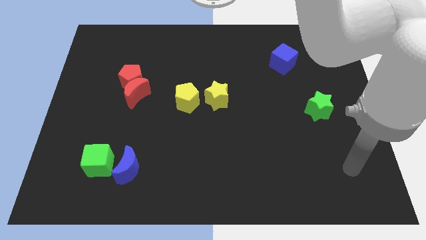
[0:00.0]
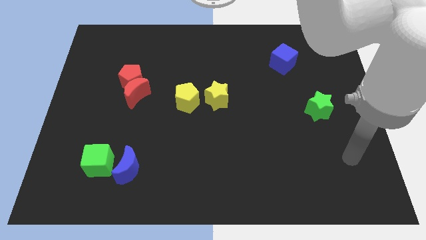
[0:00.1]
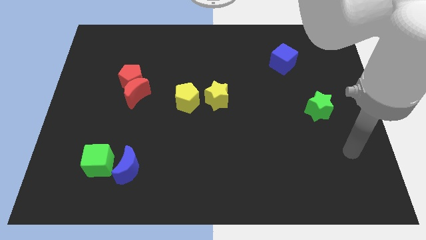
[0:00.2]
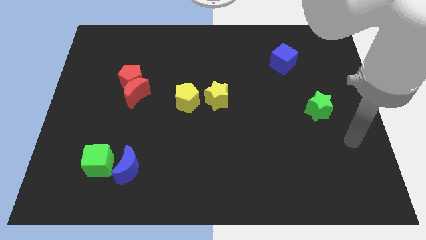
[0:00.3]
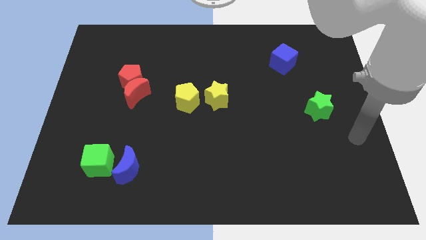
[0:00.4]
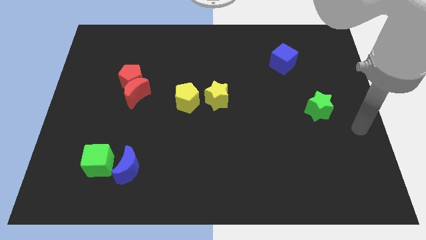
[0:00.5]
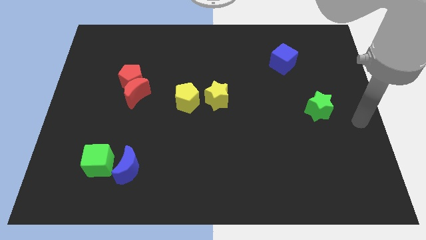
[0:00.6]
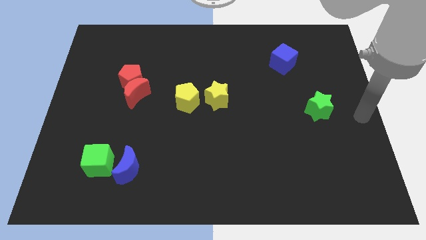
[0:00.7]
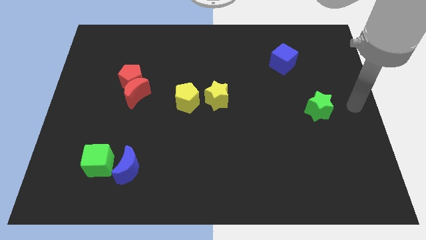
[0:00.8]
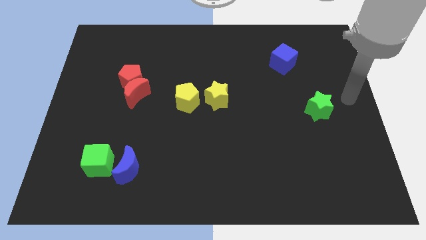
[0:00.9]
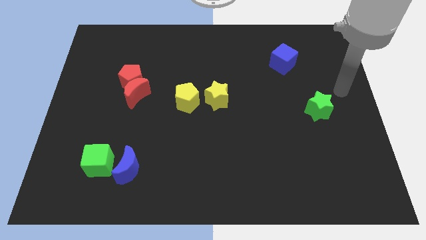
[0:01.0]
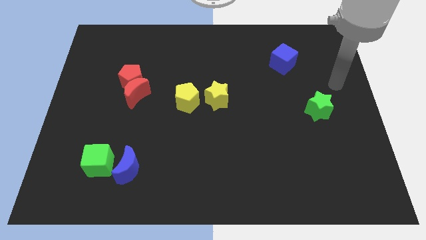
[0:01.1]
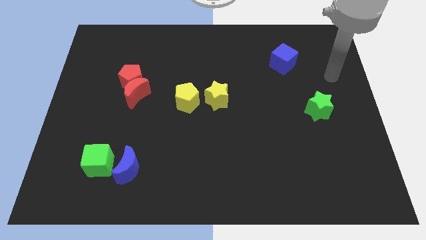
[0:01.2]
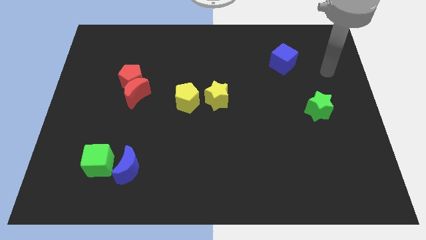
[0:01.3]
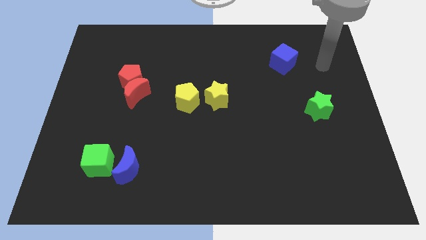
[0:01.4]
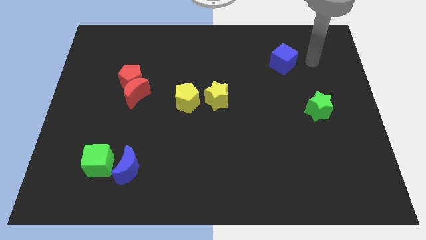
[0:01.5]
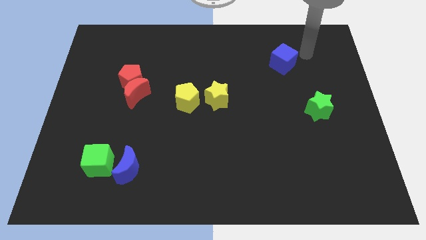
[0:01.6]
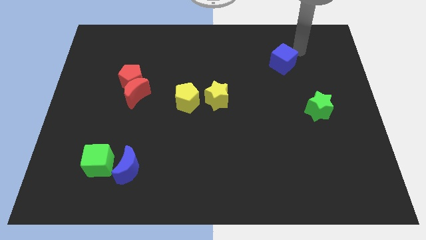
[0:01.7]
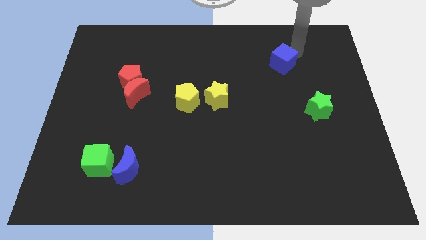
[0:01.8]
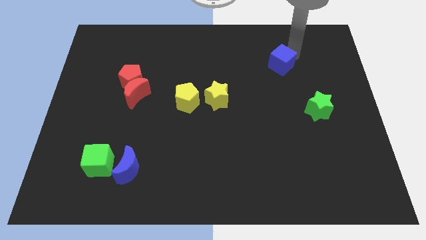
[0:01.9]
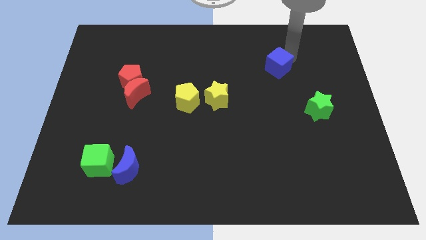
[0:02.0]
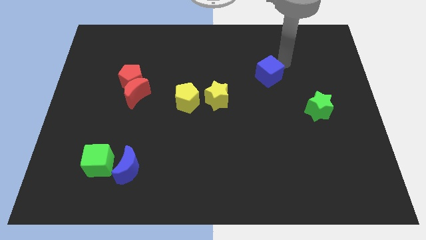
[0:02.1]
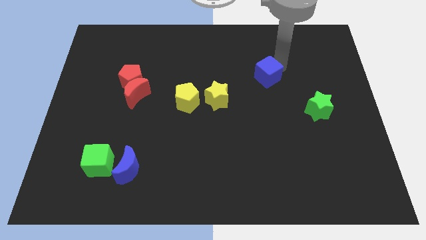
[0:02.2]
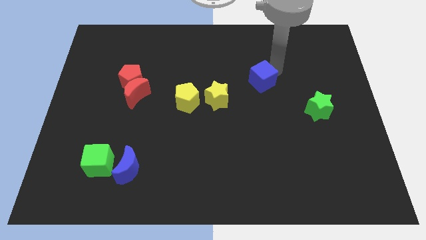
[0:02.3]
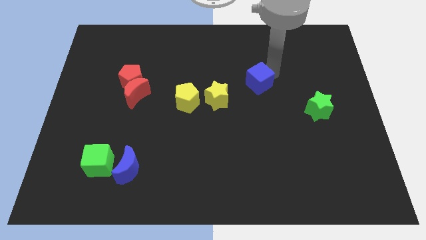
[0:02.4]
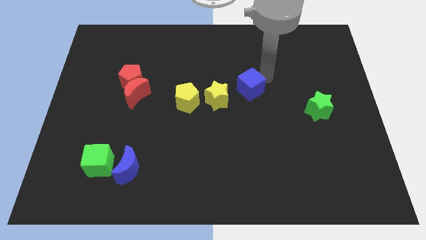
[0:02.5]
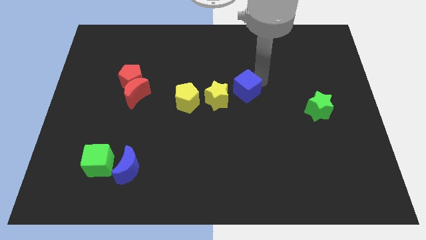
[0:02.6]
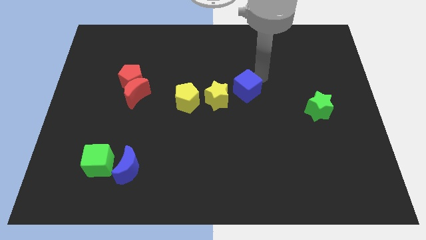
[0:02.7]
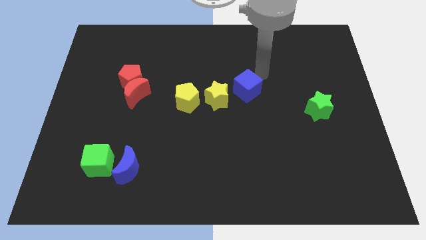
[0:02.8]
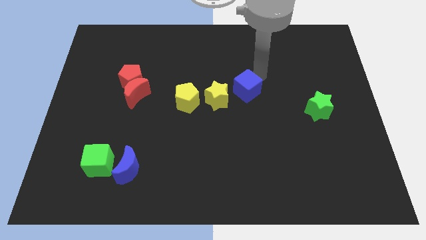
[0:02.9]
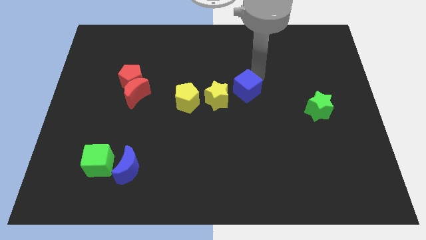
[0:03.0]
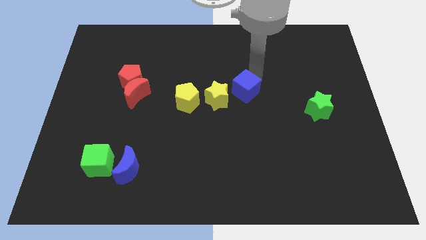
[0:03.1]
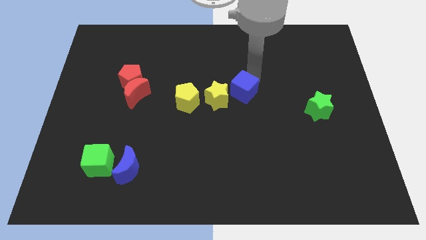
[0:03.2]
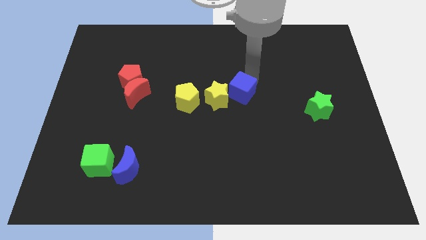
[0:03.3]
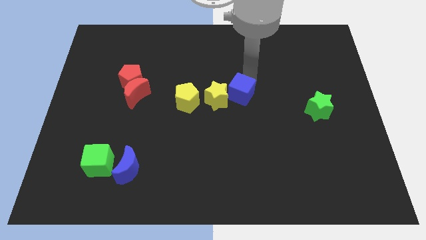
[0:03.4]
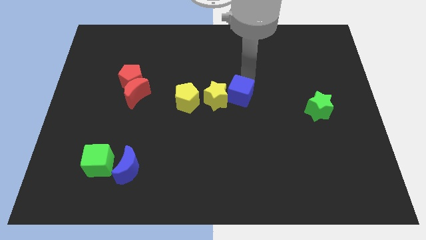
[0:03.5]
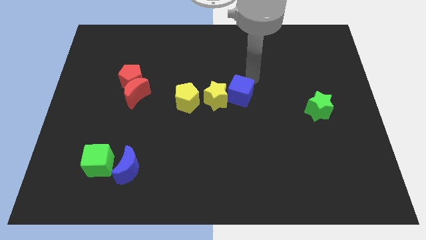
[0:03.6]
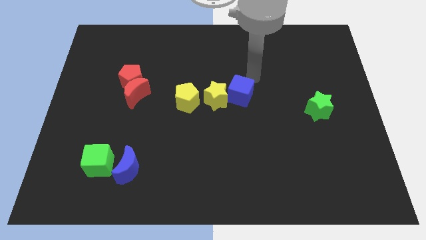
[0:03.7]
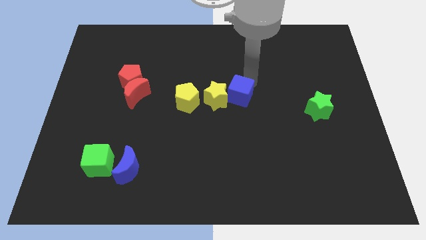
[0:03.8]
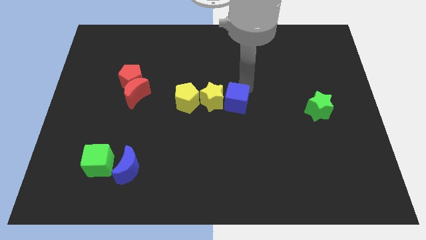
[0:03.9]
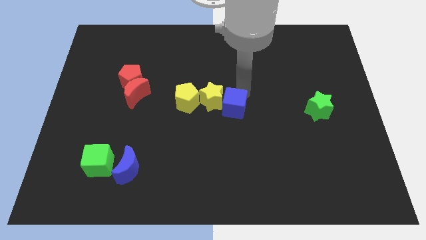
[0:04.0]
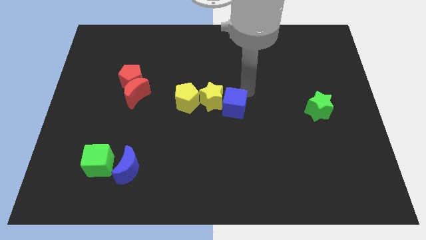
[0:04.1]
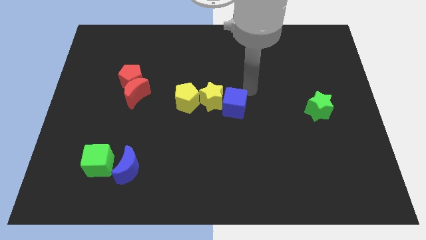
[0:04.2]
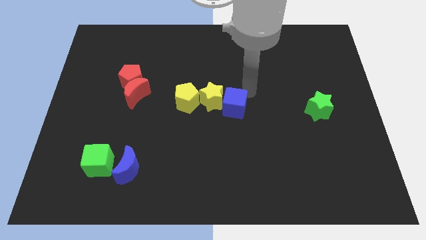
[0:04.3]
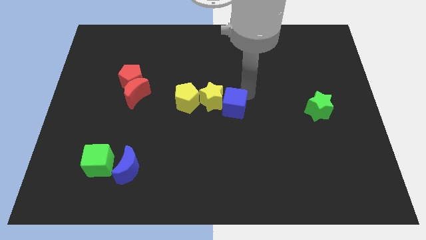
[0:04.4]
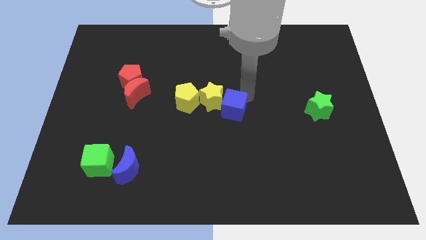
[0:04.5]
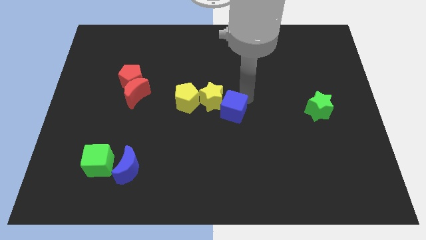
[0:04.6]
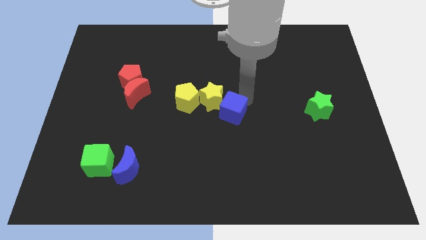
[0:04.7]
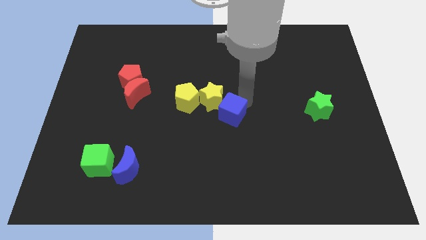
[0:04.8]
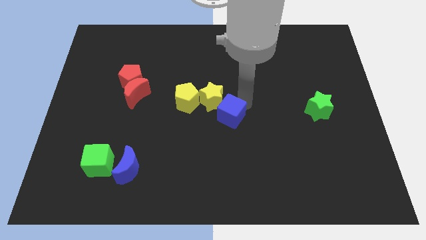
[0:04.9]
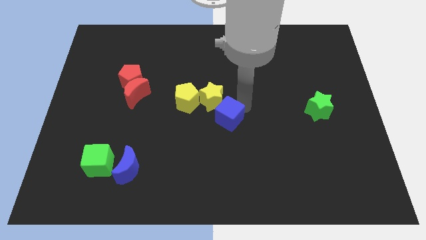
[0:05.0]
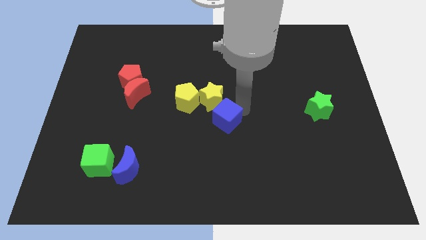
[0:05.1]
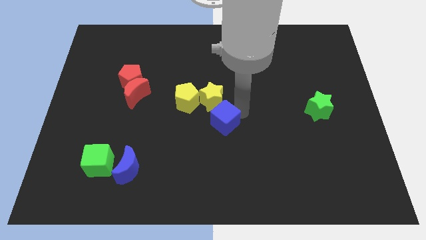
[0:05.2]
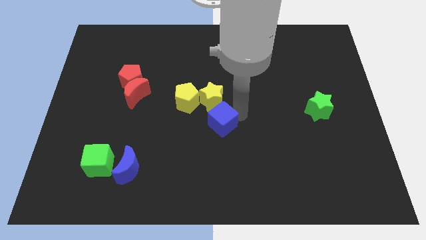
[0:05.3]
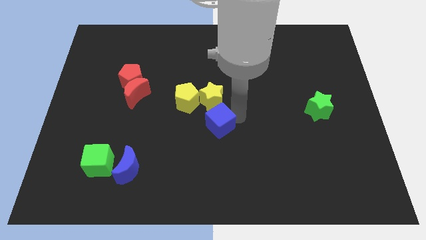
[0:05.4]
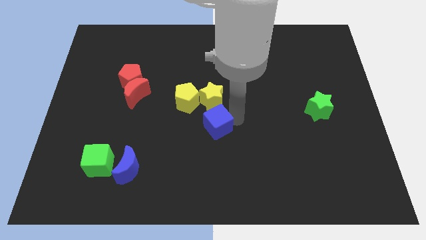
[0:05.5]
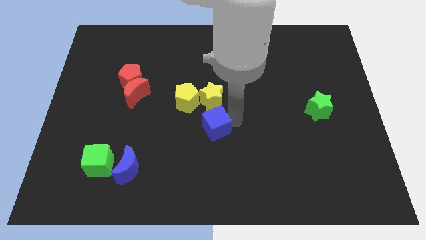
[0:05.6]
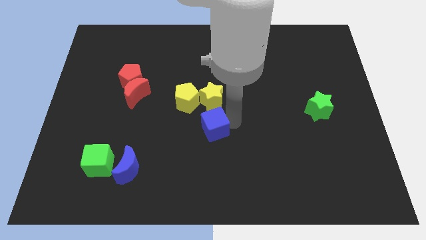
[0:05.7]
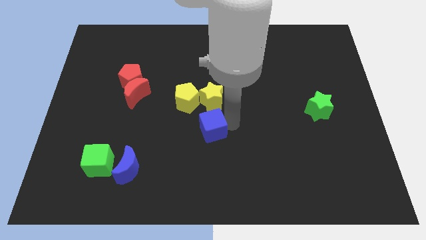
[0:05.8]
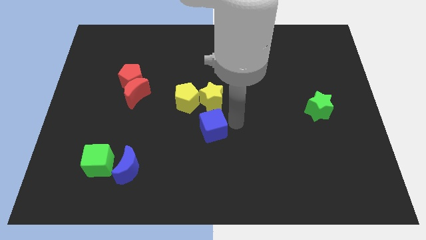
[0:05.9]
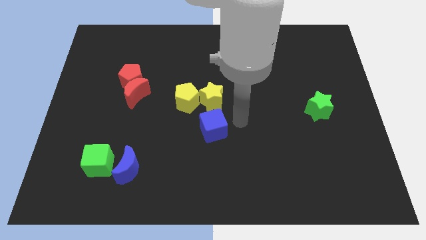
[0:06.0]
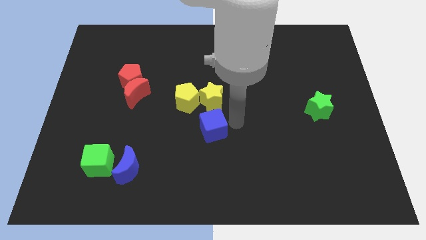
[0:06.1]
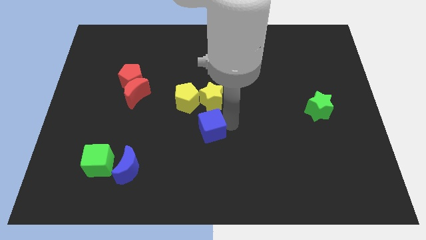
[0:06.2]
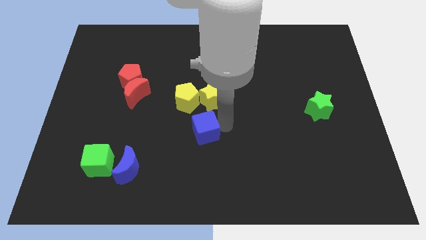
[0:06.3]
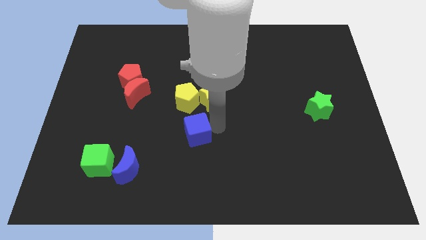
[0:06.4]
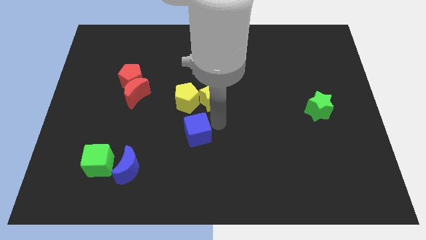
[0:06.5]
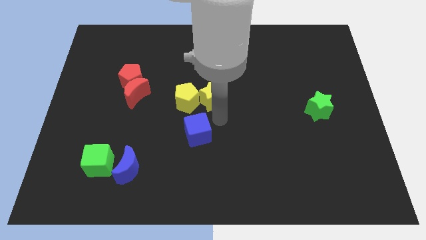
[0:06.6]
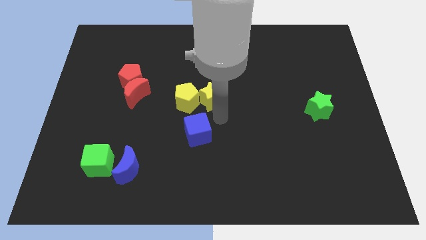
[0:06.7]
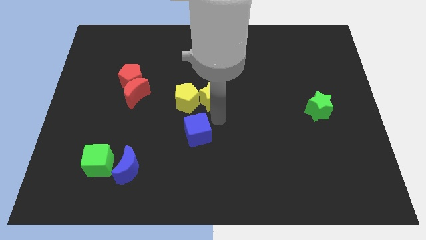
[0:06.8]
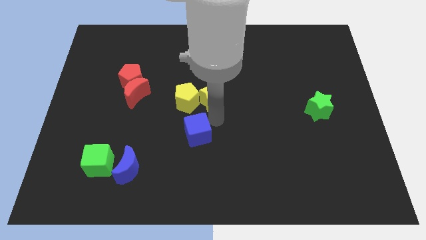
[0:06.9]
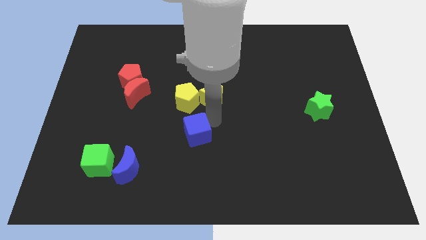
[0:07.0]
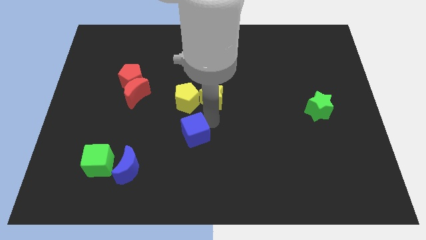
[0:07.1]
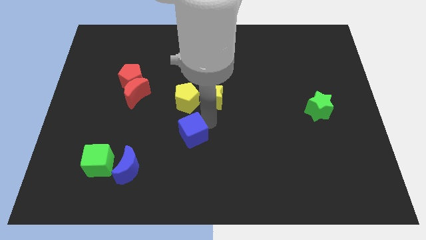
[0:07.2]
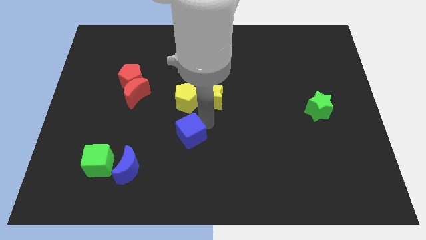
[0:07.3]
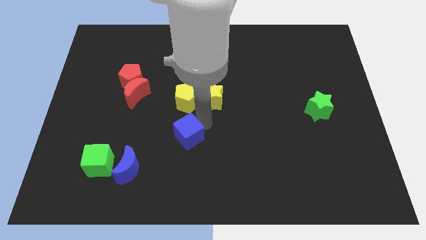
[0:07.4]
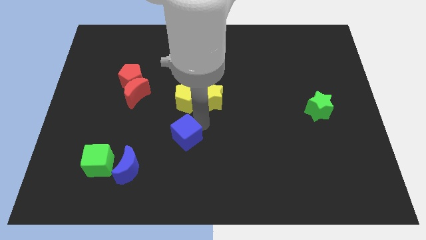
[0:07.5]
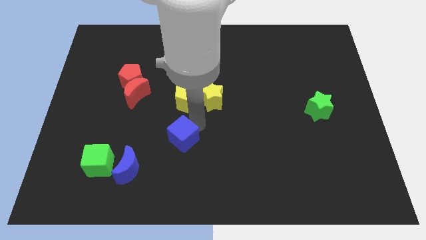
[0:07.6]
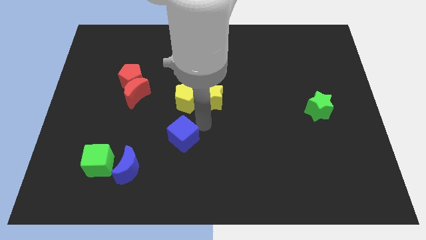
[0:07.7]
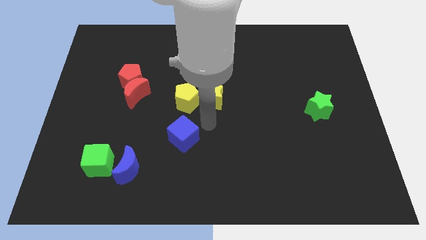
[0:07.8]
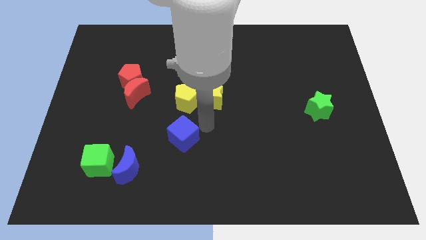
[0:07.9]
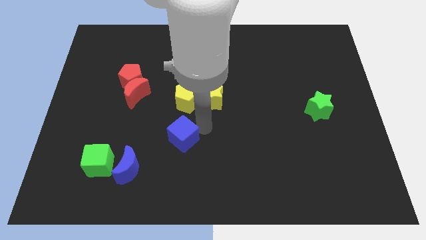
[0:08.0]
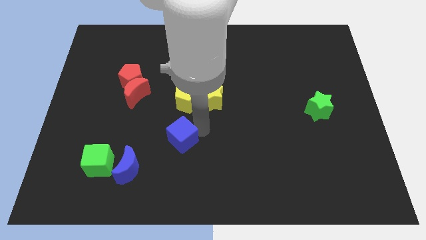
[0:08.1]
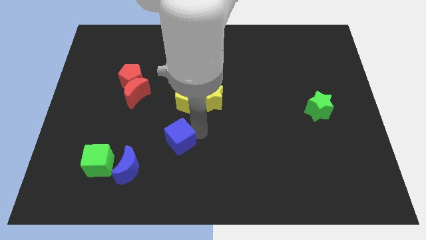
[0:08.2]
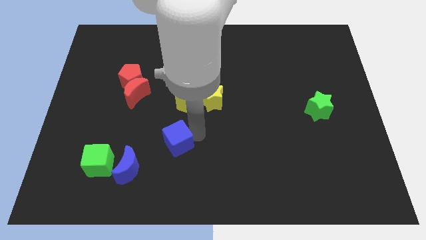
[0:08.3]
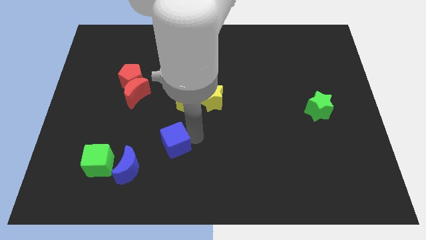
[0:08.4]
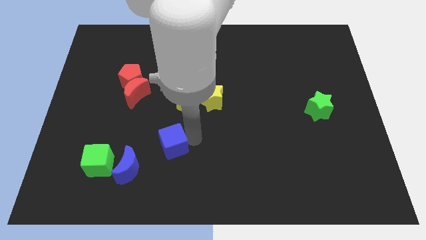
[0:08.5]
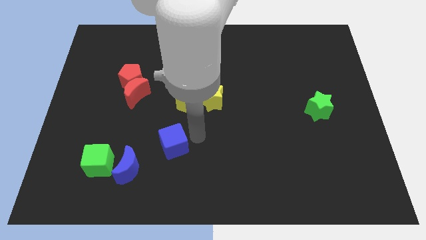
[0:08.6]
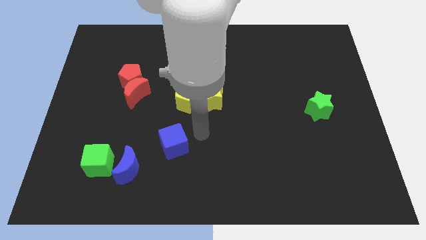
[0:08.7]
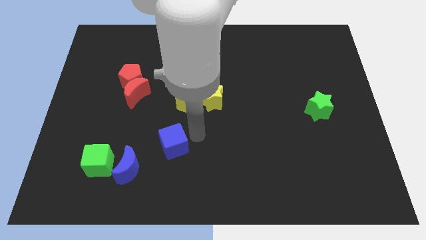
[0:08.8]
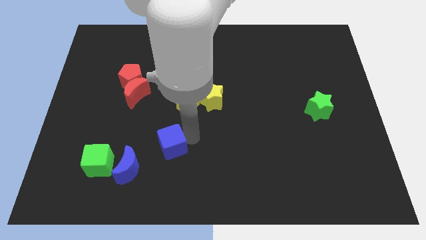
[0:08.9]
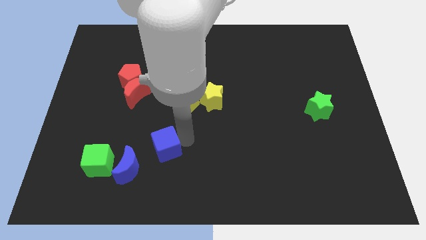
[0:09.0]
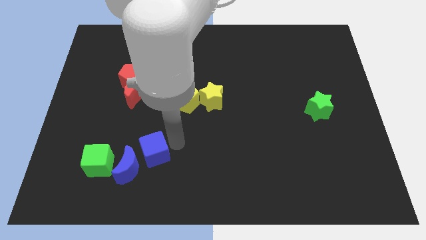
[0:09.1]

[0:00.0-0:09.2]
slide the blue cube to the blue moon
